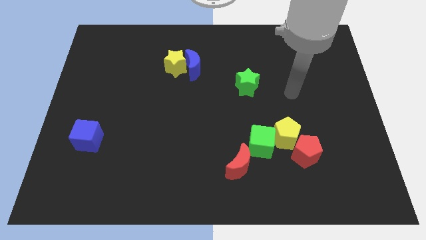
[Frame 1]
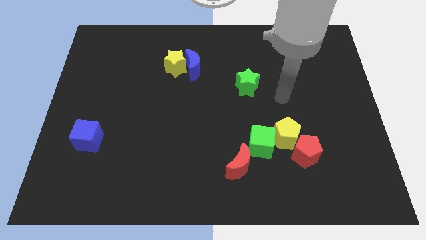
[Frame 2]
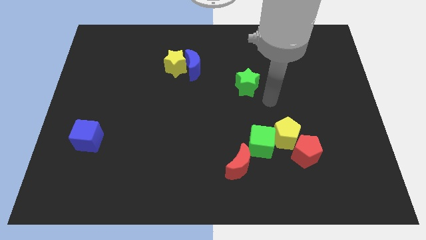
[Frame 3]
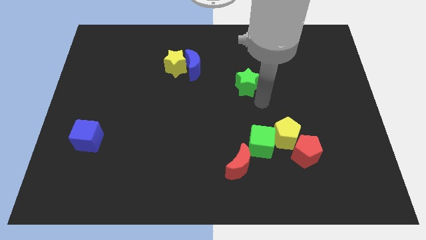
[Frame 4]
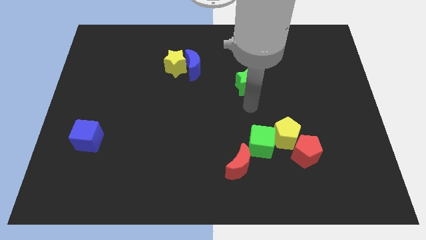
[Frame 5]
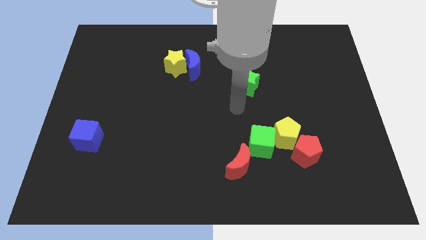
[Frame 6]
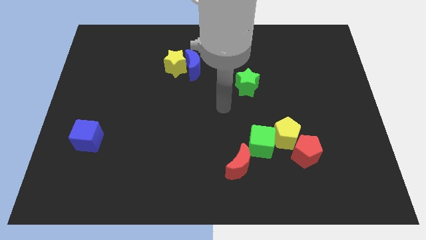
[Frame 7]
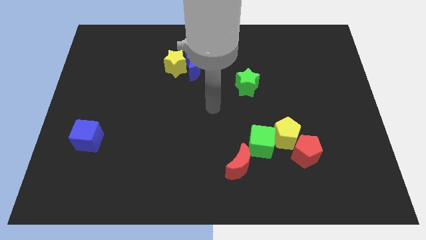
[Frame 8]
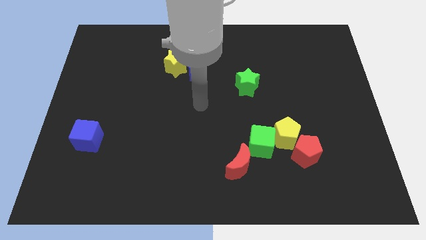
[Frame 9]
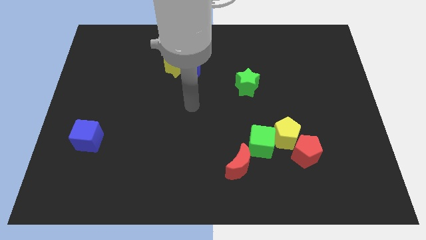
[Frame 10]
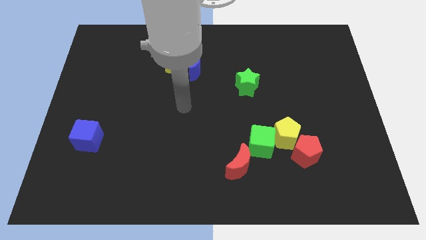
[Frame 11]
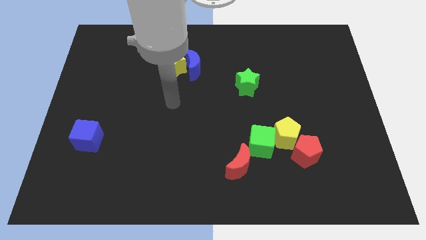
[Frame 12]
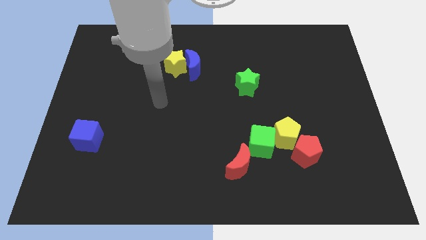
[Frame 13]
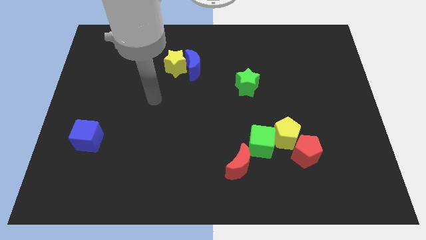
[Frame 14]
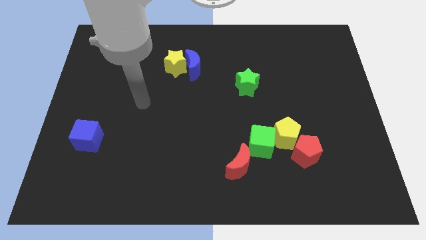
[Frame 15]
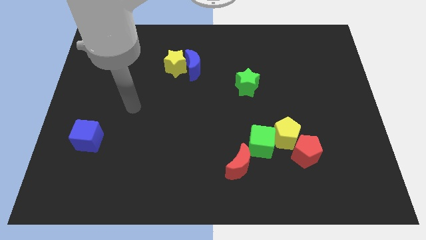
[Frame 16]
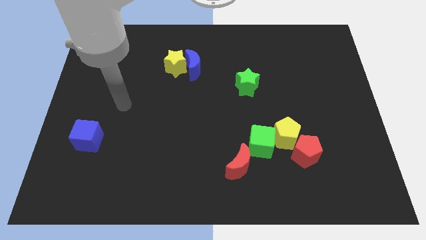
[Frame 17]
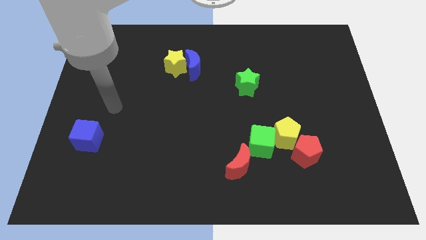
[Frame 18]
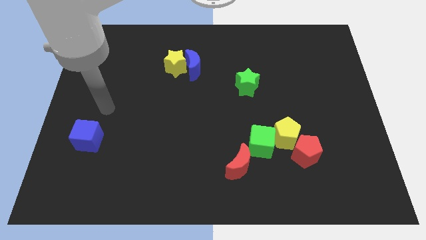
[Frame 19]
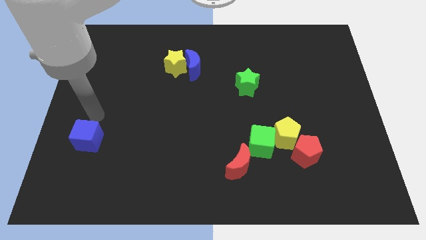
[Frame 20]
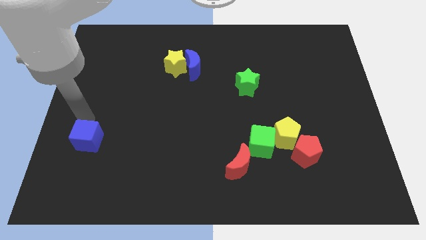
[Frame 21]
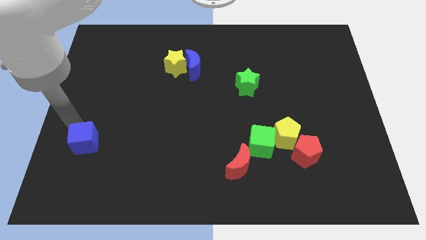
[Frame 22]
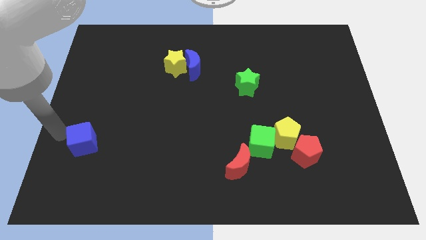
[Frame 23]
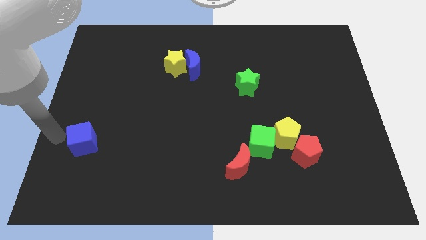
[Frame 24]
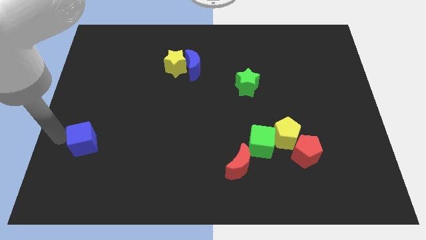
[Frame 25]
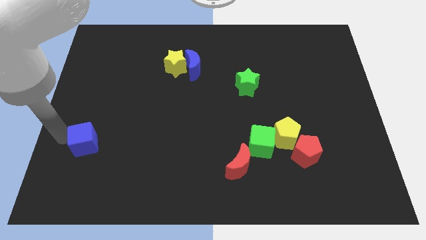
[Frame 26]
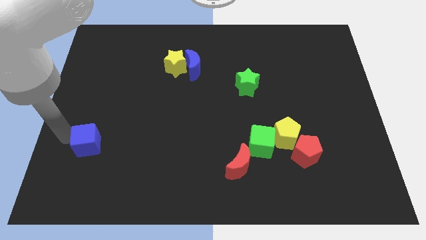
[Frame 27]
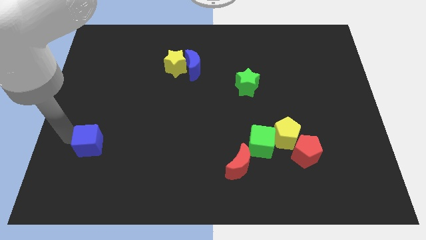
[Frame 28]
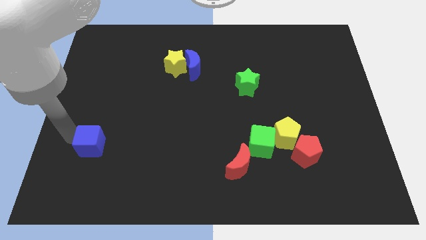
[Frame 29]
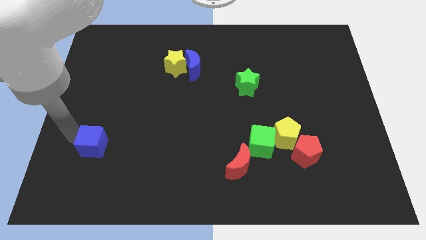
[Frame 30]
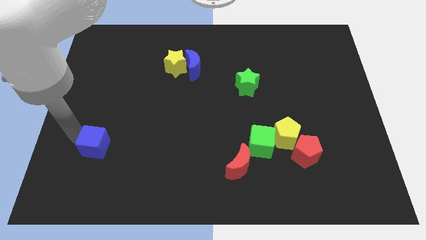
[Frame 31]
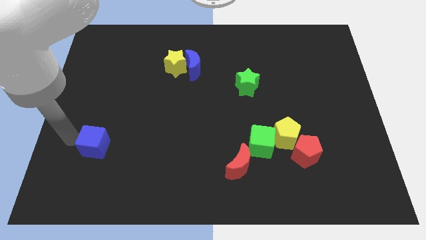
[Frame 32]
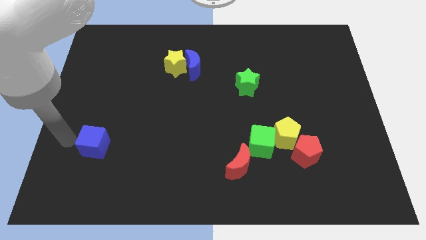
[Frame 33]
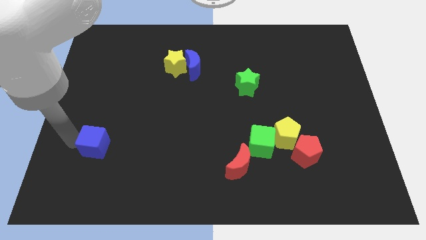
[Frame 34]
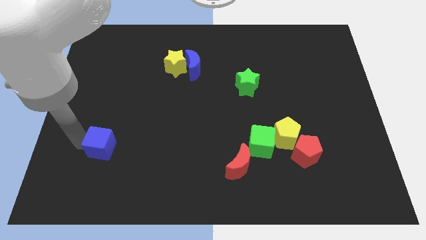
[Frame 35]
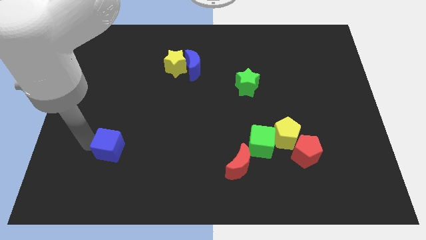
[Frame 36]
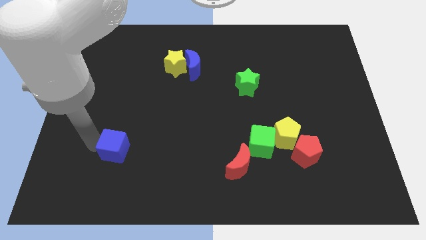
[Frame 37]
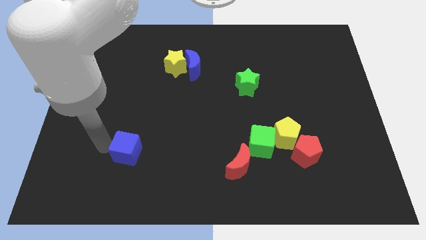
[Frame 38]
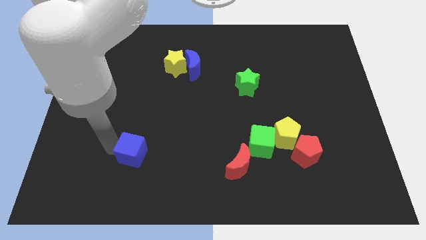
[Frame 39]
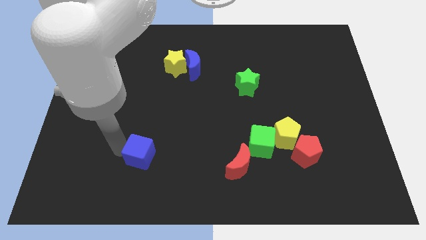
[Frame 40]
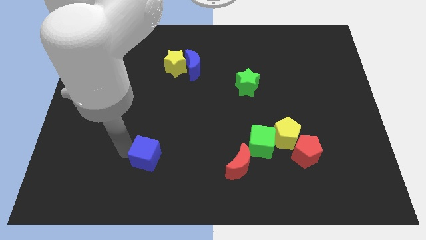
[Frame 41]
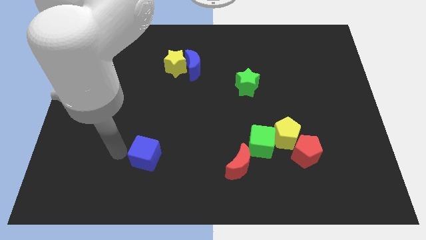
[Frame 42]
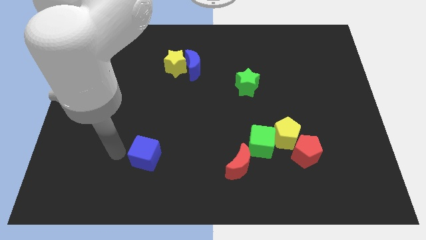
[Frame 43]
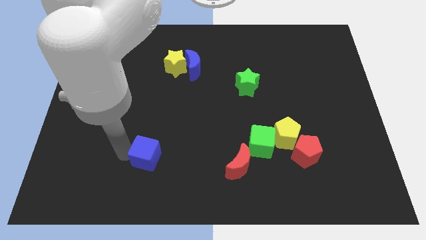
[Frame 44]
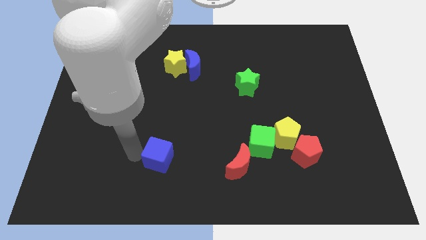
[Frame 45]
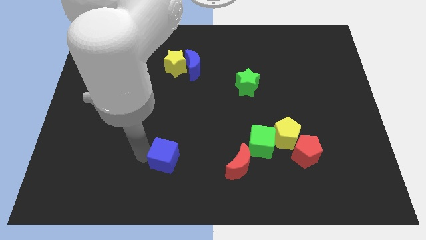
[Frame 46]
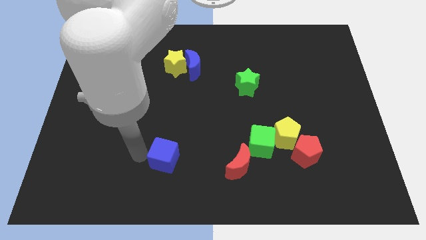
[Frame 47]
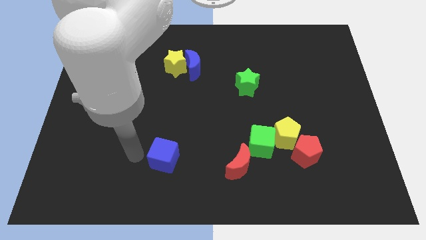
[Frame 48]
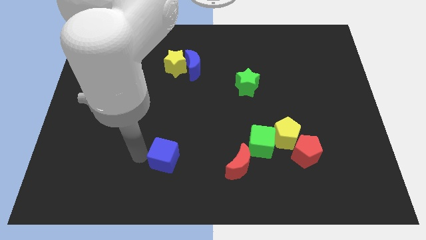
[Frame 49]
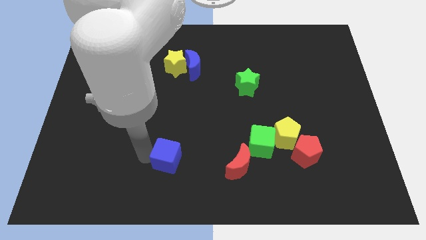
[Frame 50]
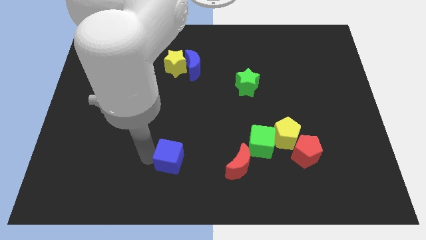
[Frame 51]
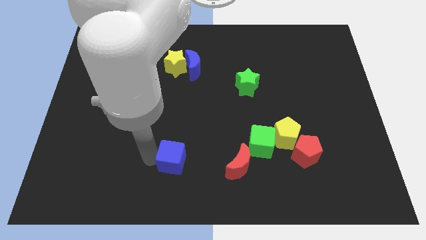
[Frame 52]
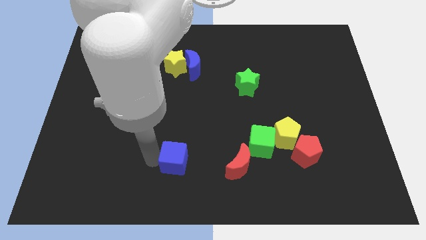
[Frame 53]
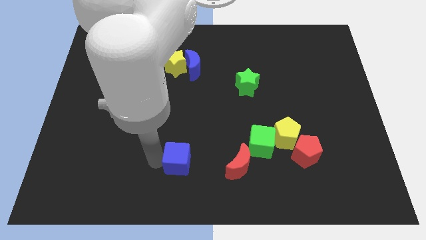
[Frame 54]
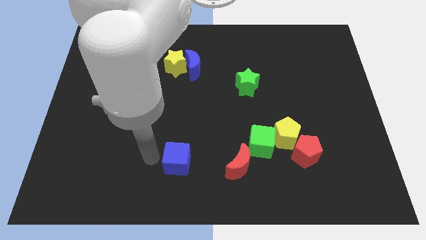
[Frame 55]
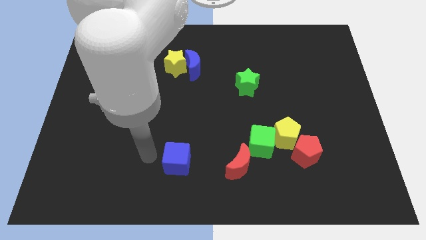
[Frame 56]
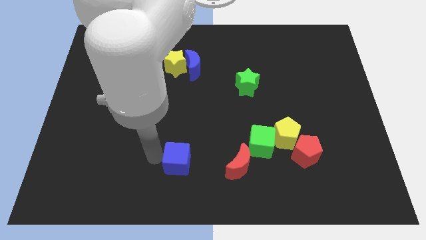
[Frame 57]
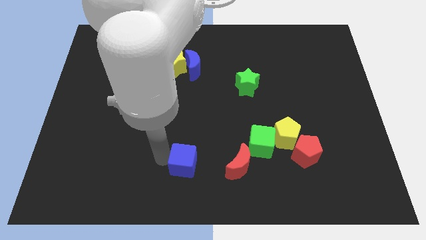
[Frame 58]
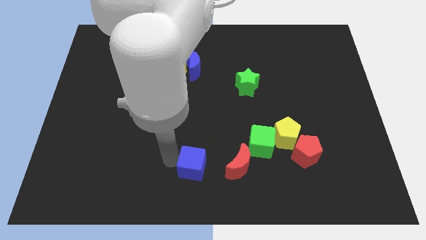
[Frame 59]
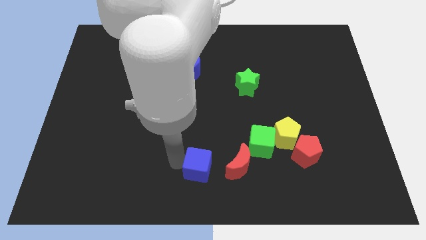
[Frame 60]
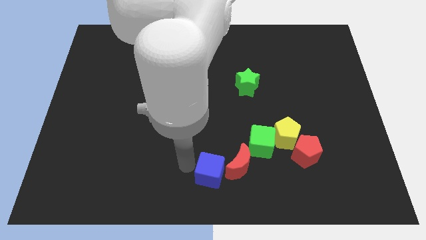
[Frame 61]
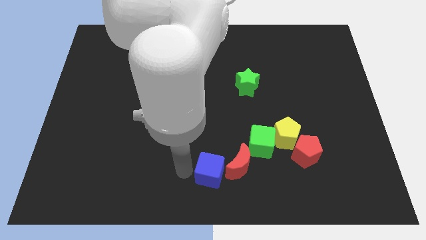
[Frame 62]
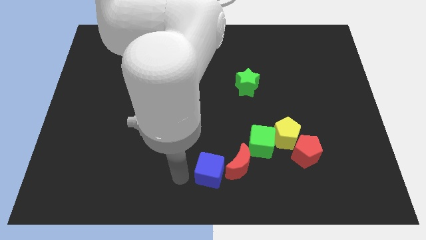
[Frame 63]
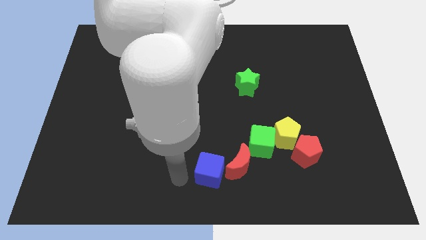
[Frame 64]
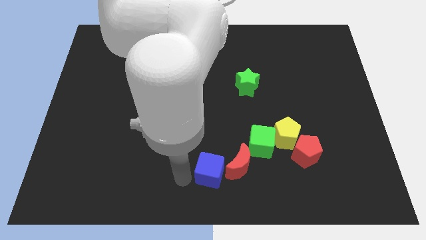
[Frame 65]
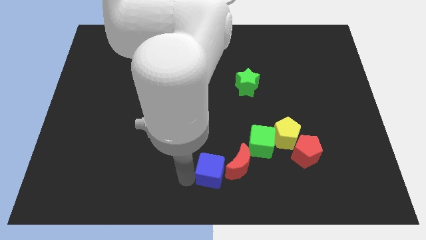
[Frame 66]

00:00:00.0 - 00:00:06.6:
slide the blue cube close to the red moon
